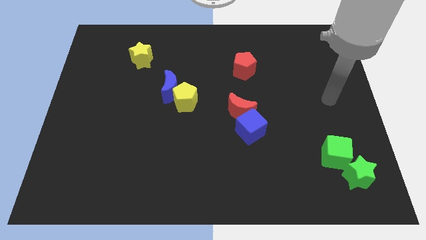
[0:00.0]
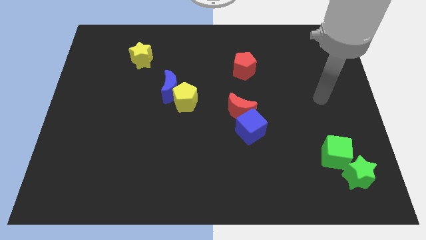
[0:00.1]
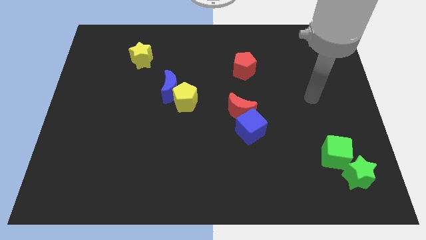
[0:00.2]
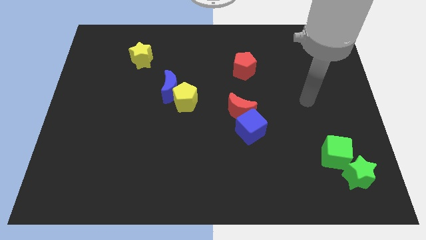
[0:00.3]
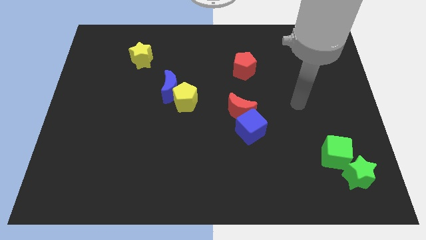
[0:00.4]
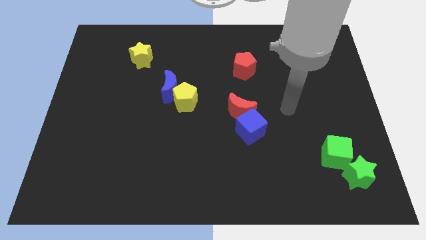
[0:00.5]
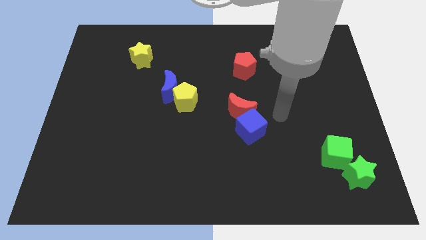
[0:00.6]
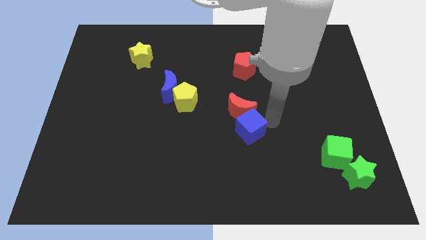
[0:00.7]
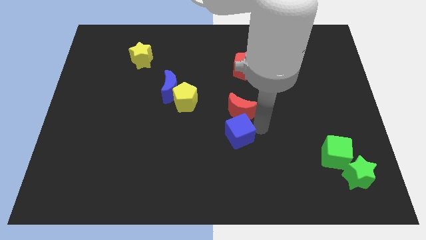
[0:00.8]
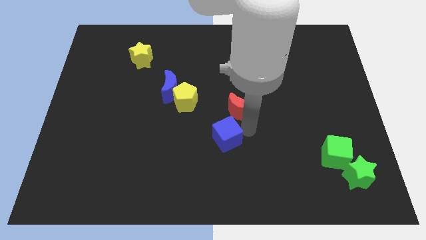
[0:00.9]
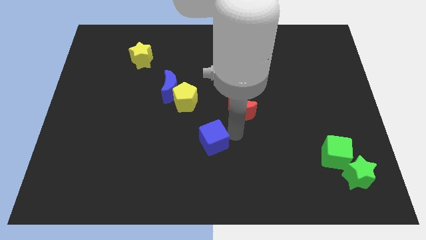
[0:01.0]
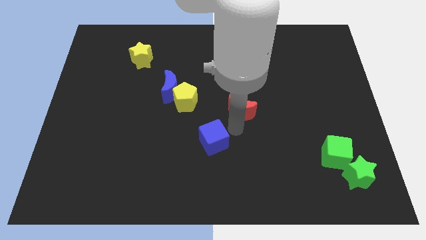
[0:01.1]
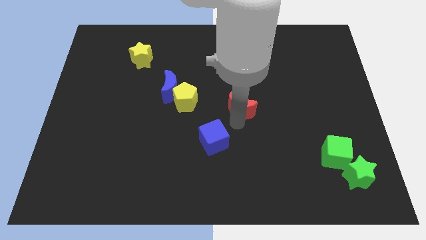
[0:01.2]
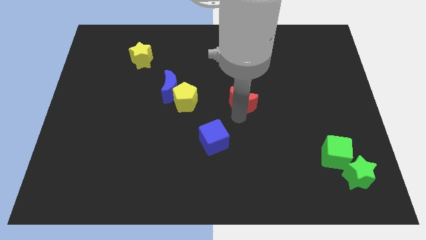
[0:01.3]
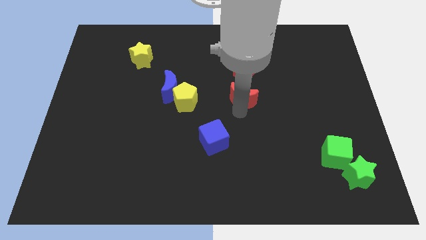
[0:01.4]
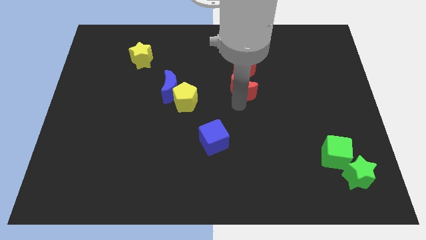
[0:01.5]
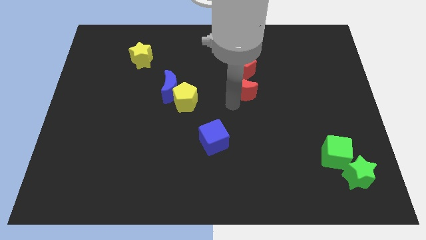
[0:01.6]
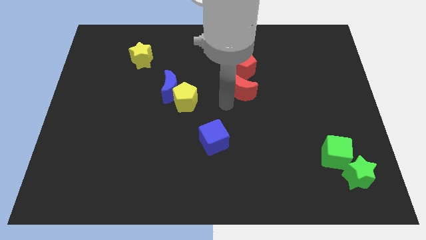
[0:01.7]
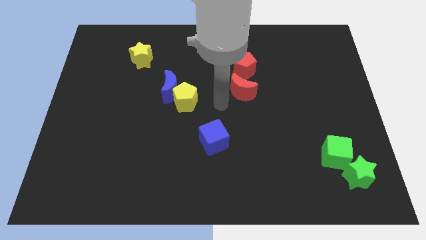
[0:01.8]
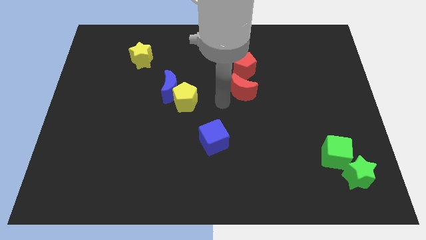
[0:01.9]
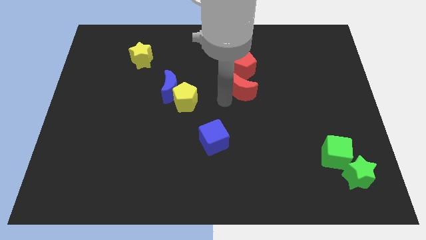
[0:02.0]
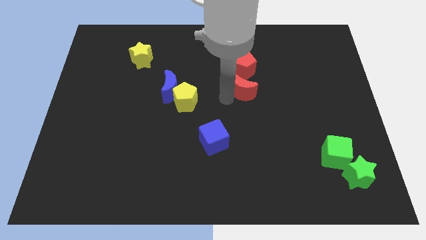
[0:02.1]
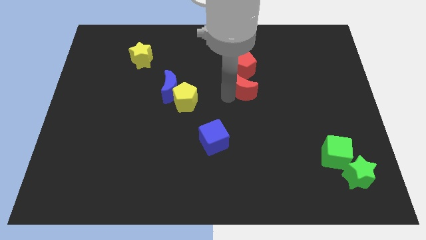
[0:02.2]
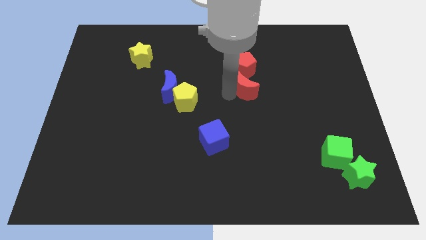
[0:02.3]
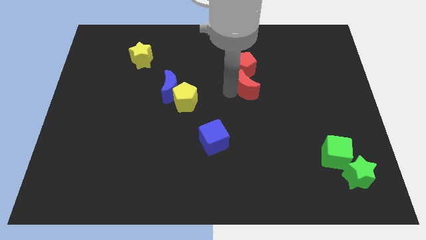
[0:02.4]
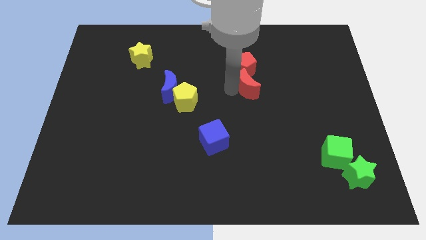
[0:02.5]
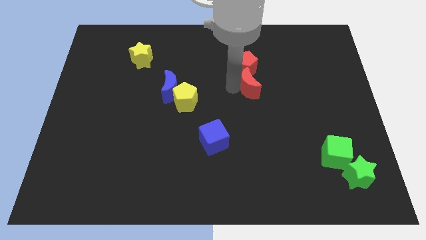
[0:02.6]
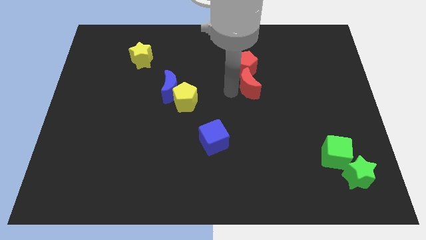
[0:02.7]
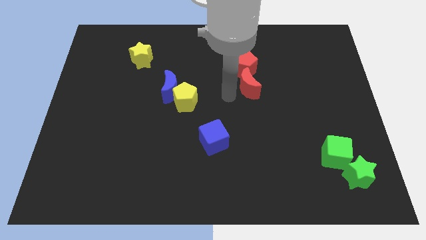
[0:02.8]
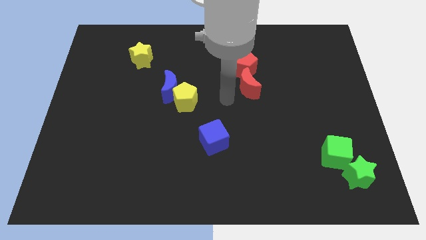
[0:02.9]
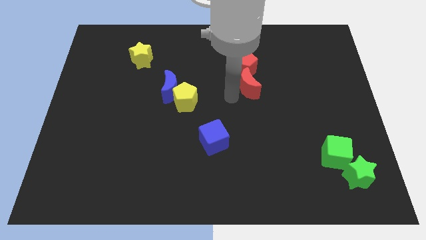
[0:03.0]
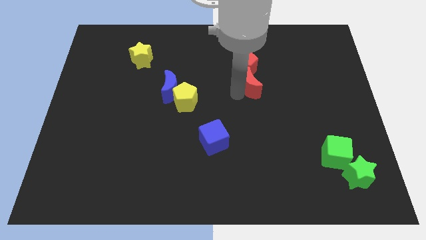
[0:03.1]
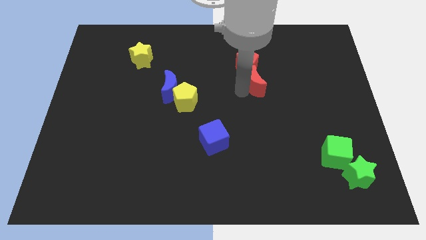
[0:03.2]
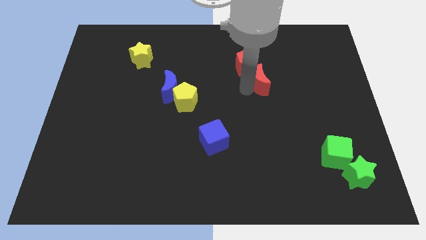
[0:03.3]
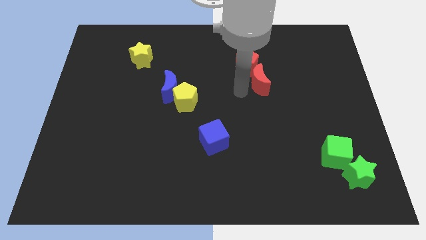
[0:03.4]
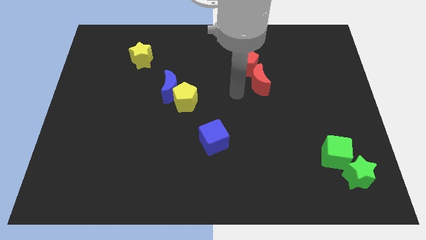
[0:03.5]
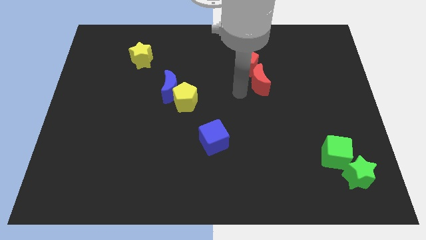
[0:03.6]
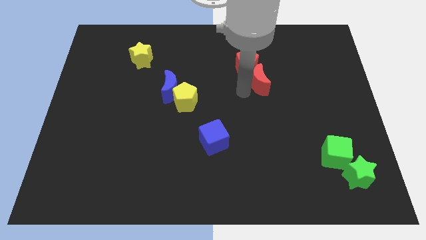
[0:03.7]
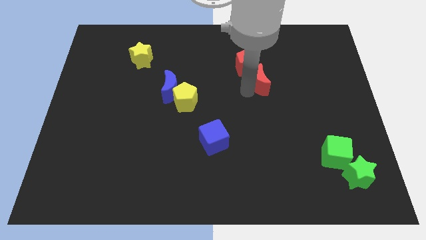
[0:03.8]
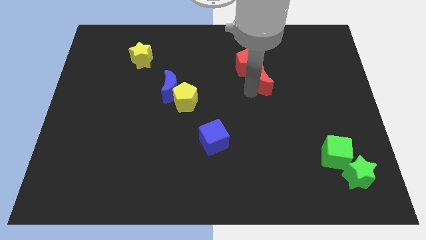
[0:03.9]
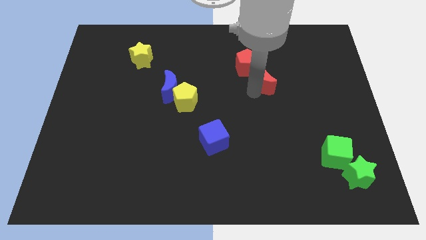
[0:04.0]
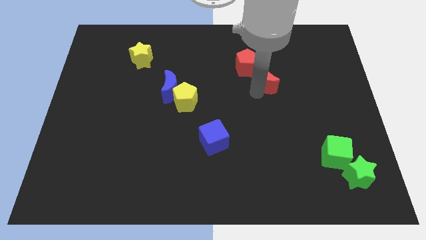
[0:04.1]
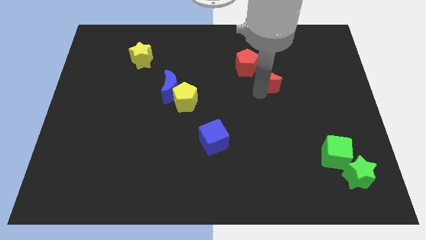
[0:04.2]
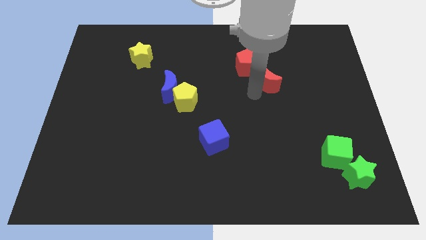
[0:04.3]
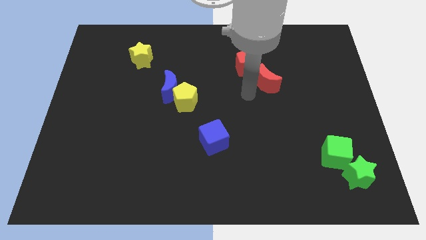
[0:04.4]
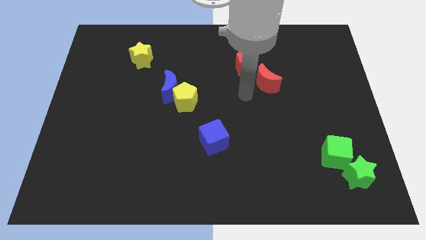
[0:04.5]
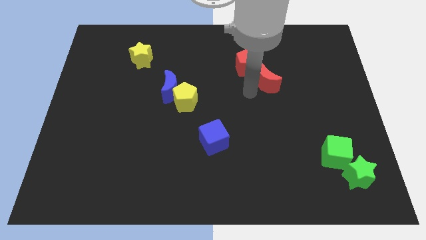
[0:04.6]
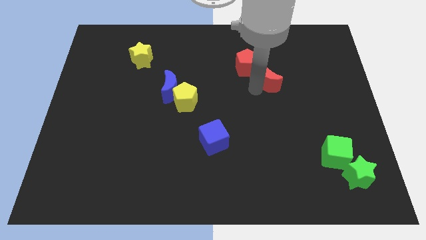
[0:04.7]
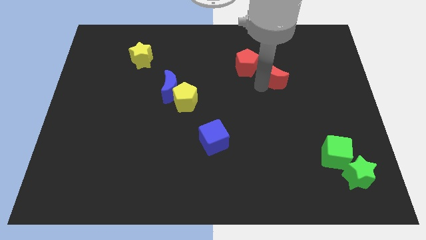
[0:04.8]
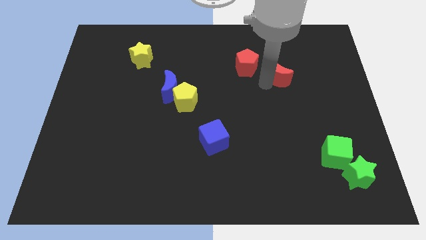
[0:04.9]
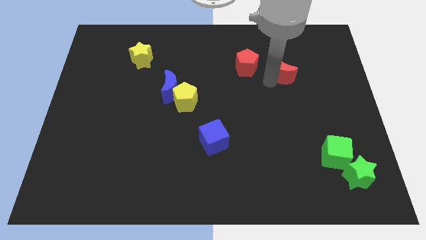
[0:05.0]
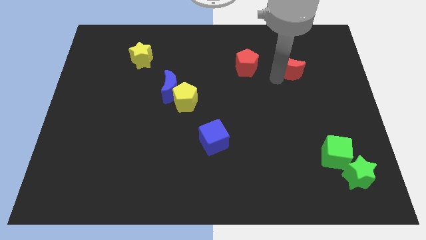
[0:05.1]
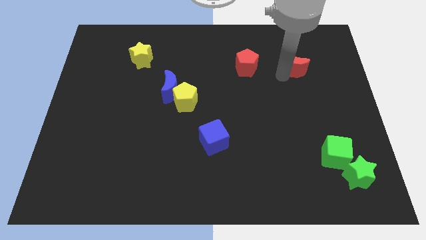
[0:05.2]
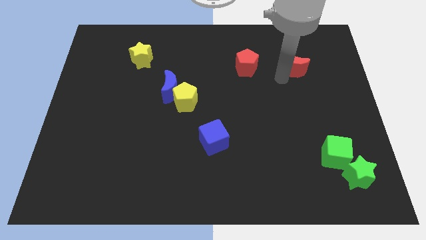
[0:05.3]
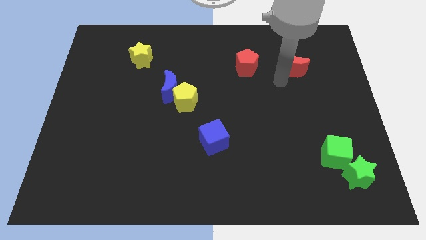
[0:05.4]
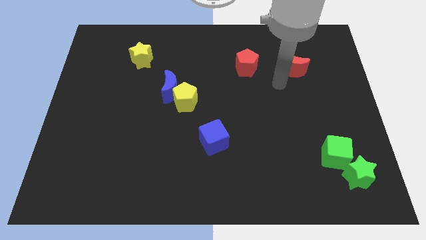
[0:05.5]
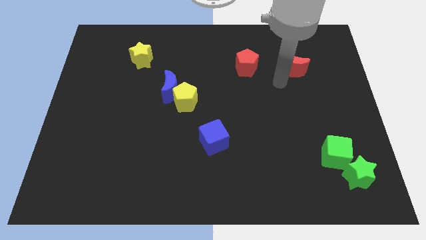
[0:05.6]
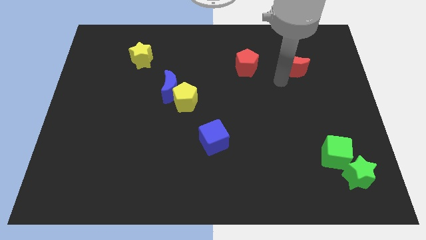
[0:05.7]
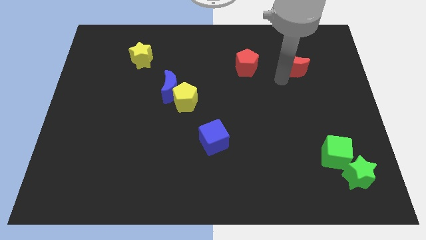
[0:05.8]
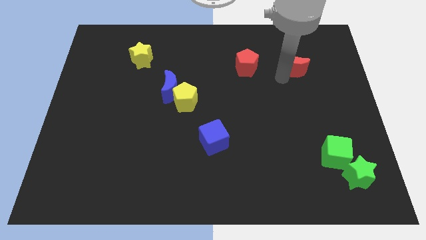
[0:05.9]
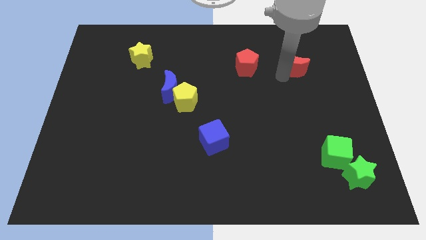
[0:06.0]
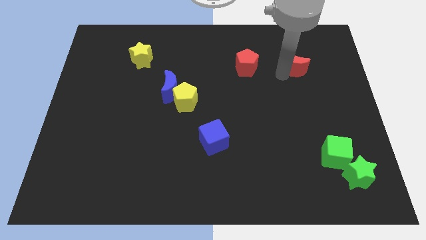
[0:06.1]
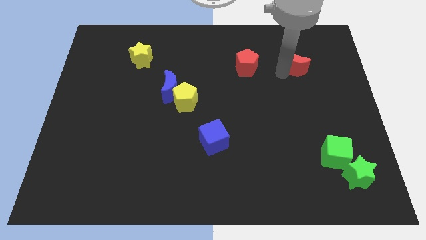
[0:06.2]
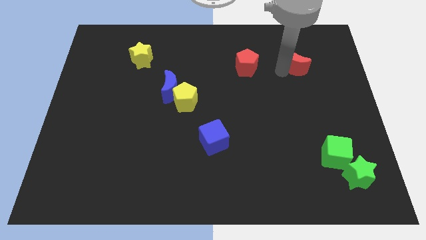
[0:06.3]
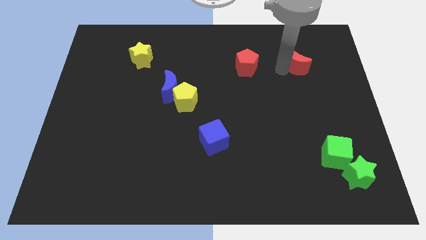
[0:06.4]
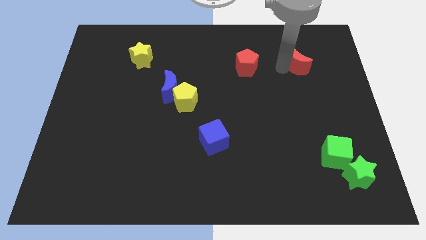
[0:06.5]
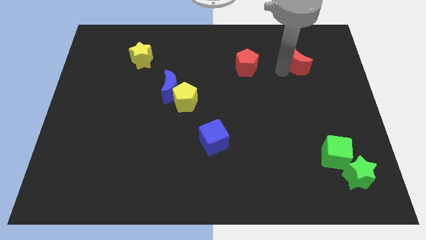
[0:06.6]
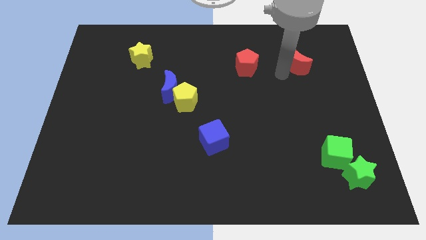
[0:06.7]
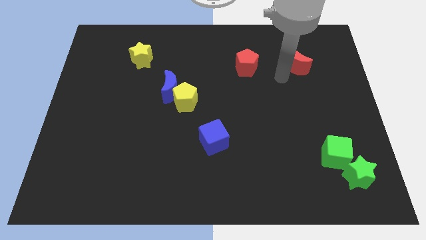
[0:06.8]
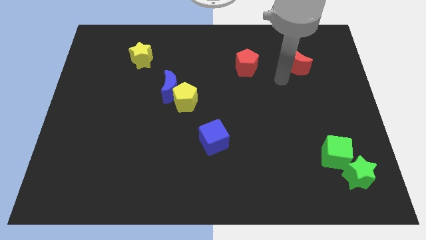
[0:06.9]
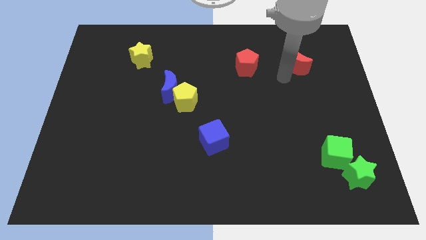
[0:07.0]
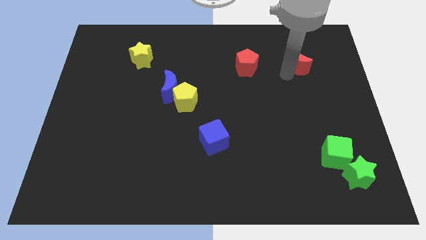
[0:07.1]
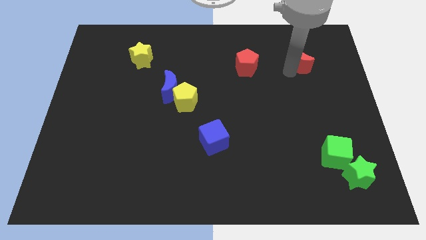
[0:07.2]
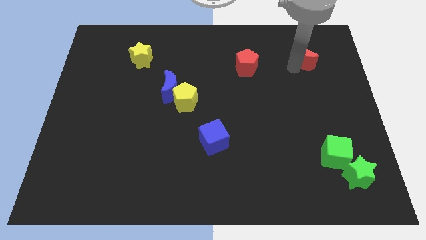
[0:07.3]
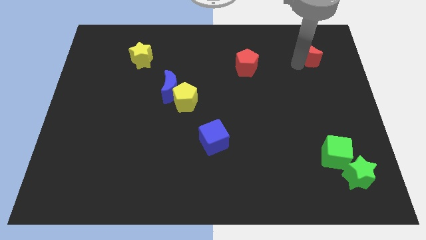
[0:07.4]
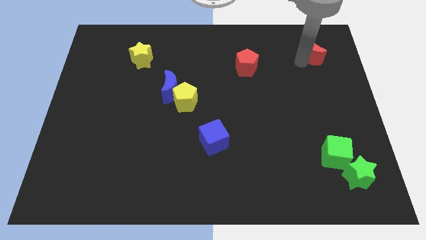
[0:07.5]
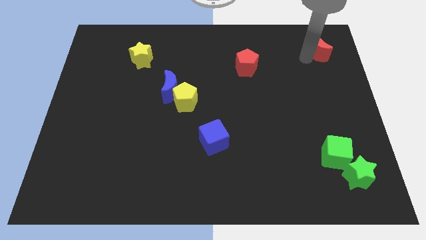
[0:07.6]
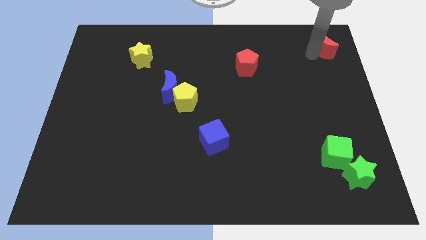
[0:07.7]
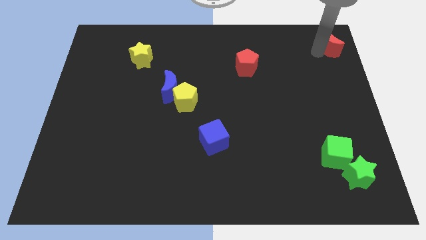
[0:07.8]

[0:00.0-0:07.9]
slide the red moon to the top right
